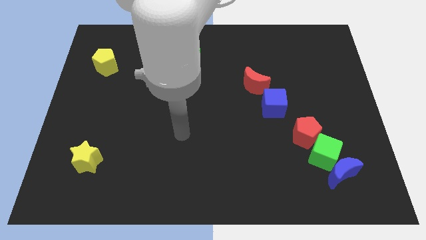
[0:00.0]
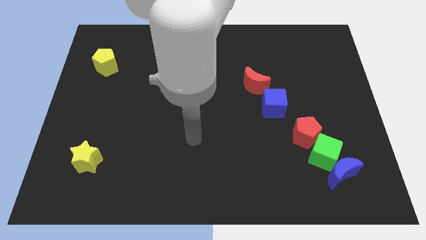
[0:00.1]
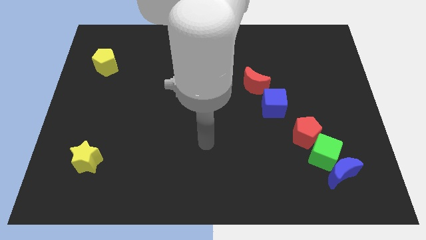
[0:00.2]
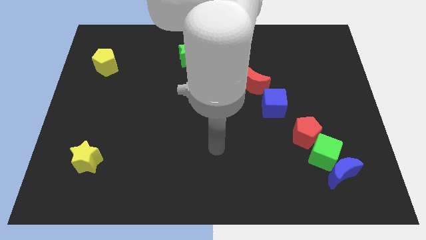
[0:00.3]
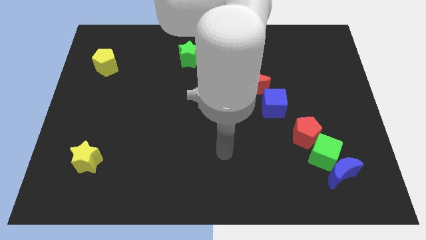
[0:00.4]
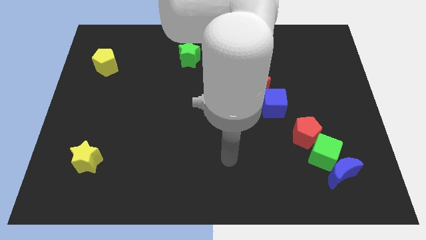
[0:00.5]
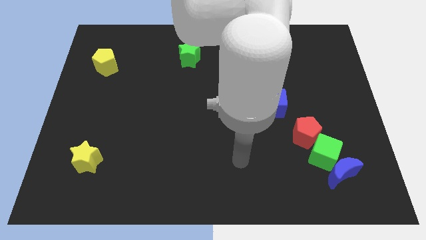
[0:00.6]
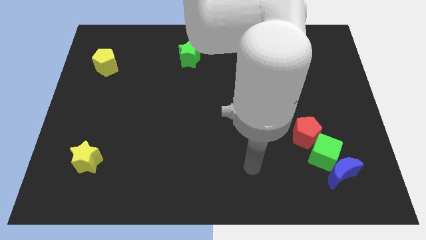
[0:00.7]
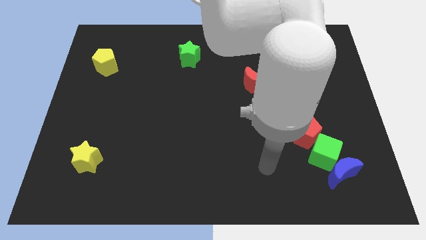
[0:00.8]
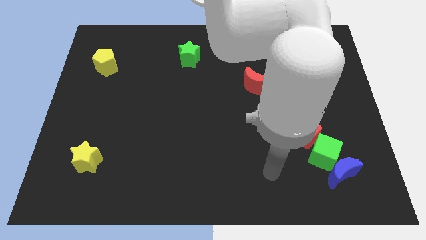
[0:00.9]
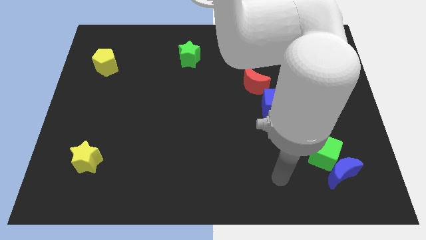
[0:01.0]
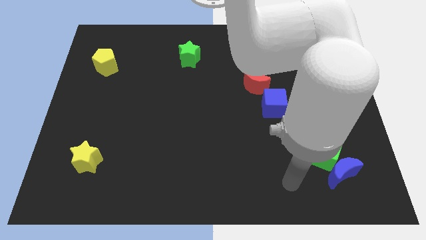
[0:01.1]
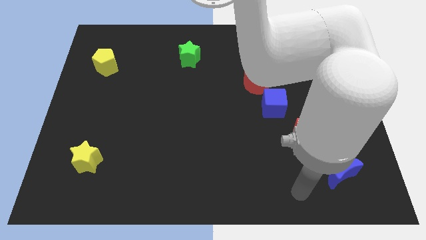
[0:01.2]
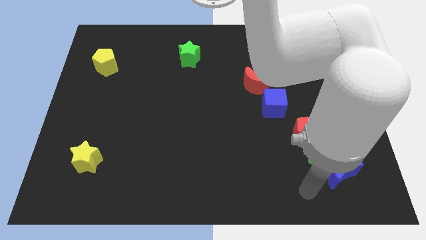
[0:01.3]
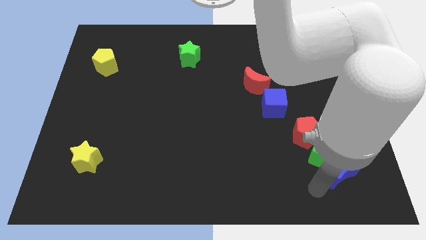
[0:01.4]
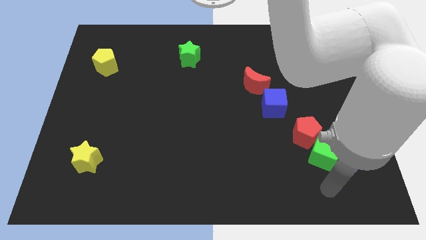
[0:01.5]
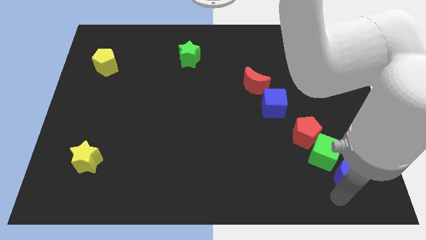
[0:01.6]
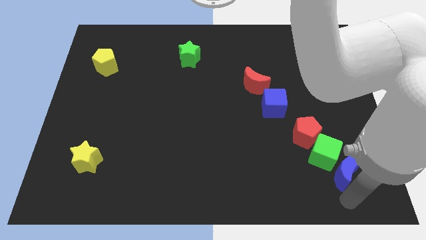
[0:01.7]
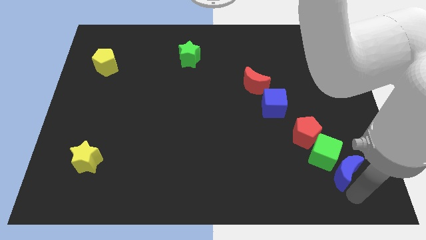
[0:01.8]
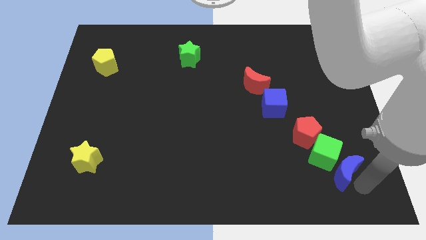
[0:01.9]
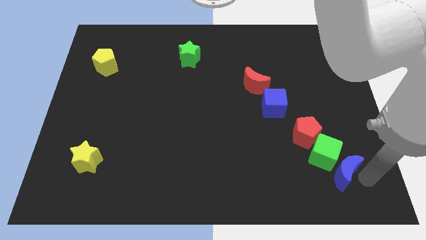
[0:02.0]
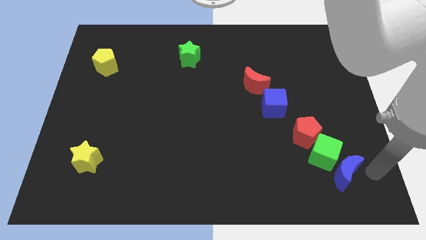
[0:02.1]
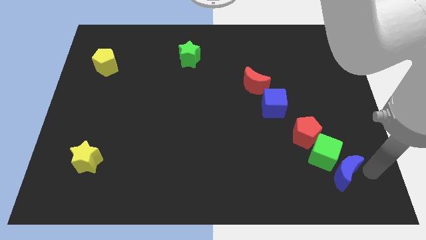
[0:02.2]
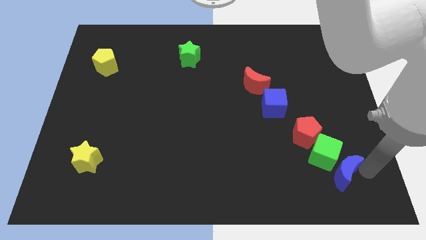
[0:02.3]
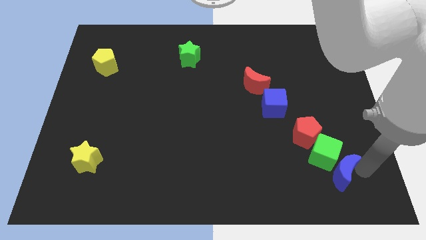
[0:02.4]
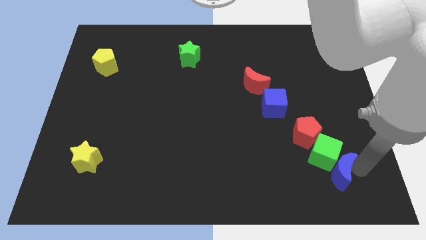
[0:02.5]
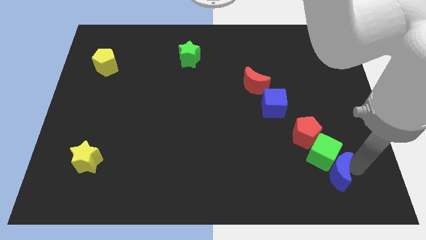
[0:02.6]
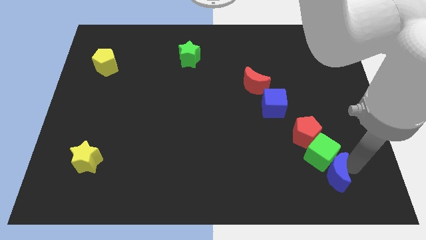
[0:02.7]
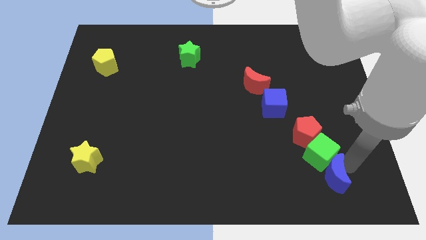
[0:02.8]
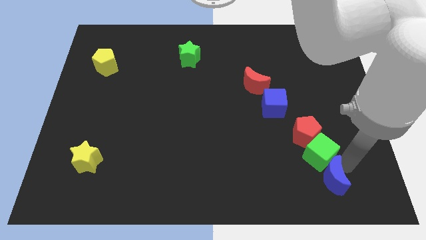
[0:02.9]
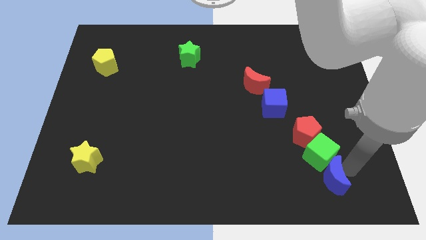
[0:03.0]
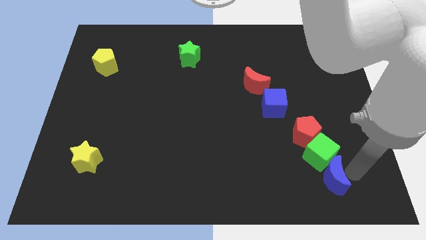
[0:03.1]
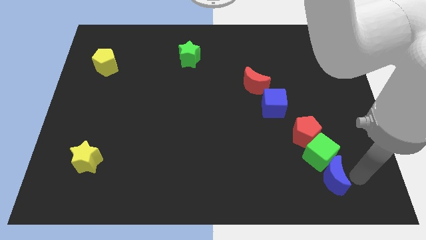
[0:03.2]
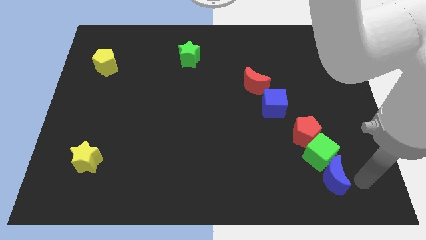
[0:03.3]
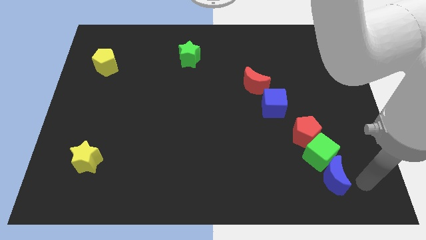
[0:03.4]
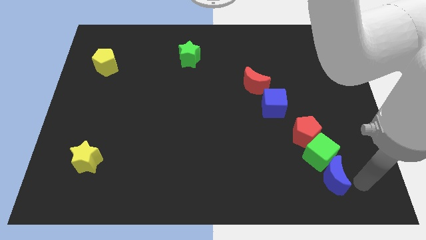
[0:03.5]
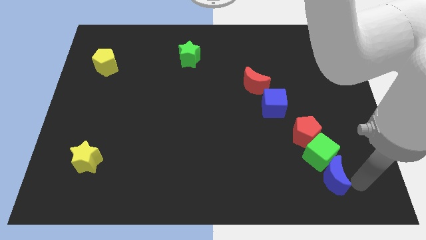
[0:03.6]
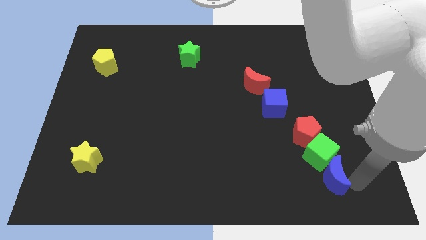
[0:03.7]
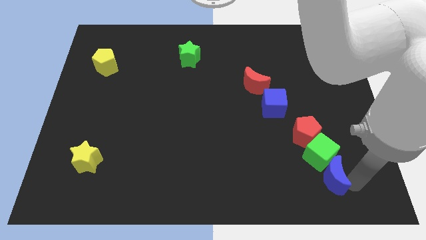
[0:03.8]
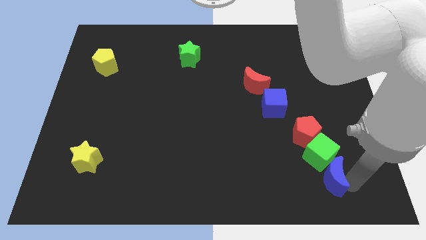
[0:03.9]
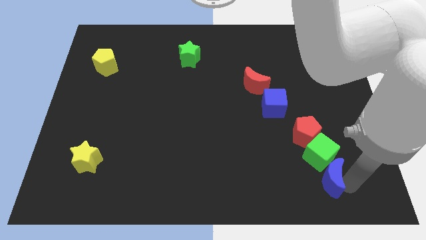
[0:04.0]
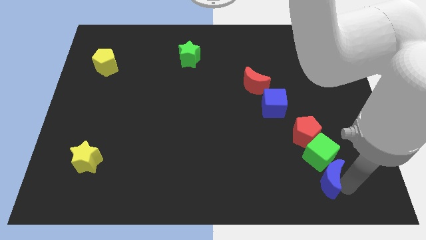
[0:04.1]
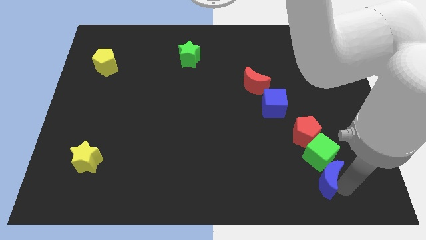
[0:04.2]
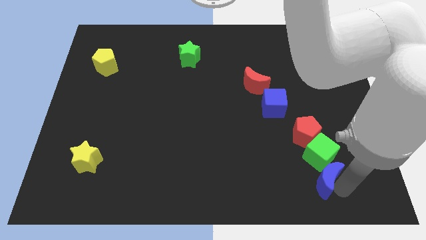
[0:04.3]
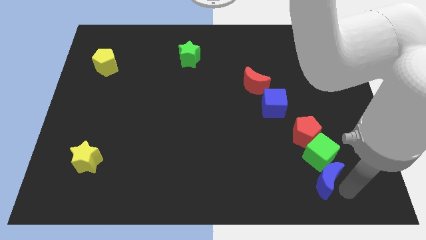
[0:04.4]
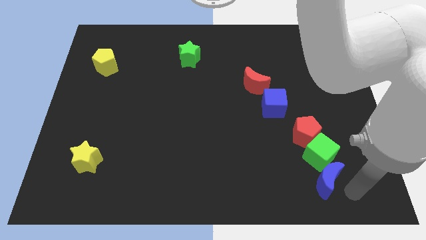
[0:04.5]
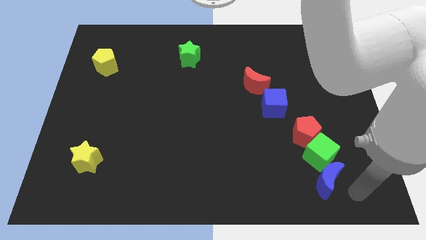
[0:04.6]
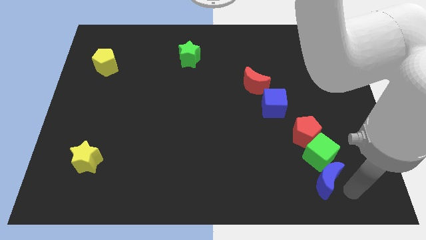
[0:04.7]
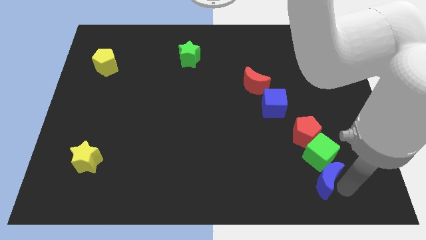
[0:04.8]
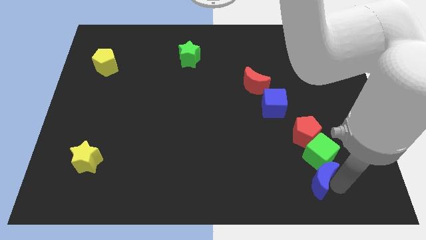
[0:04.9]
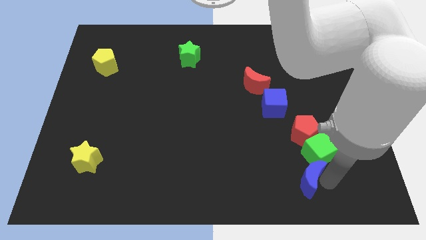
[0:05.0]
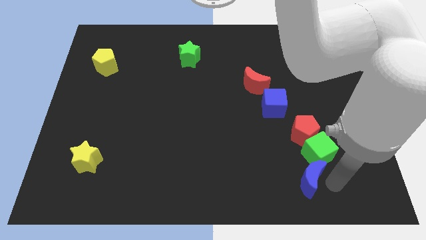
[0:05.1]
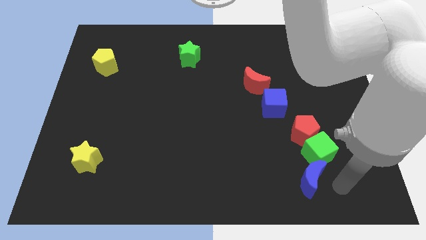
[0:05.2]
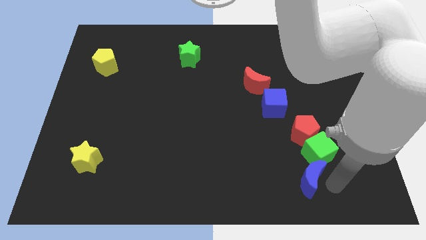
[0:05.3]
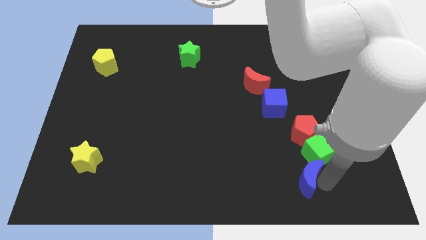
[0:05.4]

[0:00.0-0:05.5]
move the blue moon slightly to the left

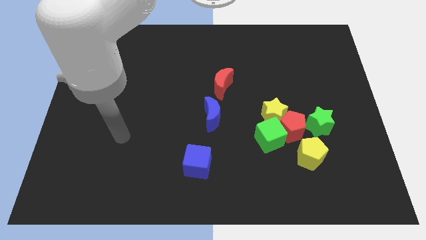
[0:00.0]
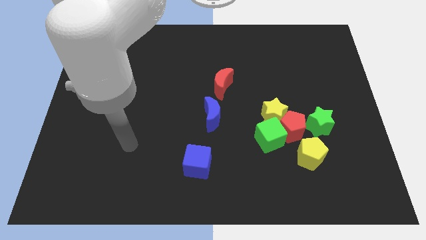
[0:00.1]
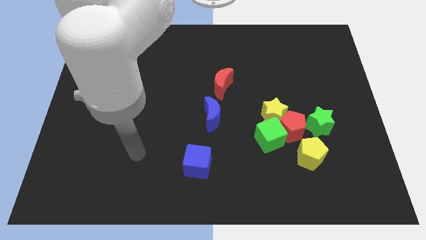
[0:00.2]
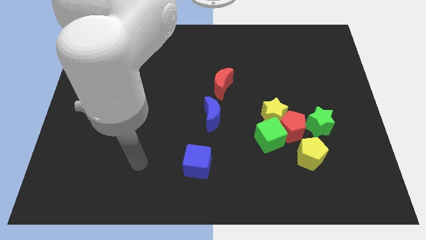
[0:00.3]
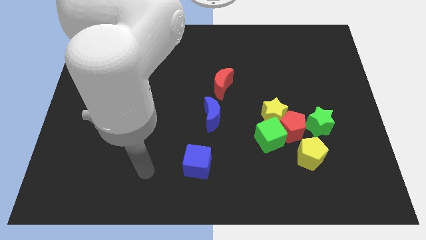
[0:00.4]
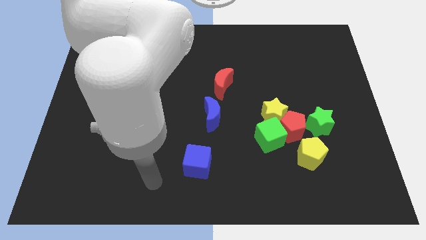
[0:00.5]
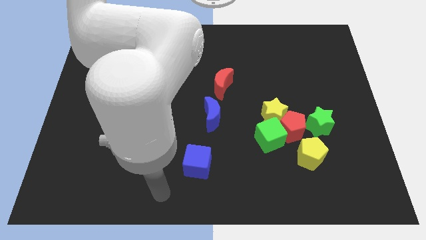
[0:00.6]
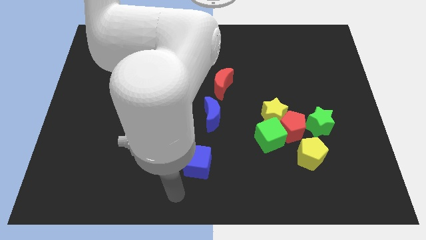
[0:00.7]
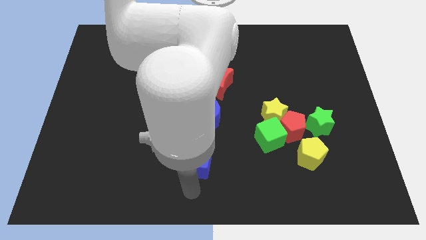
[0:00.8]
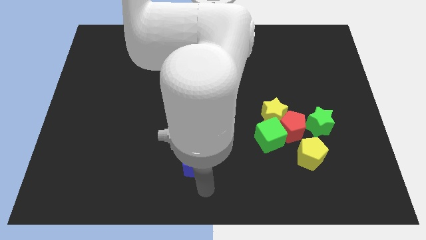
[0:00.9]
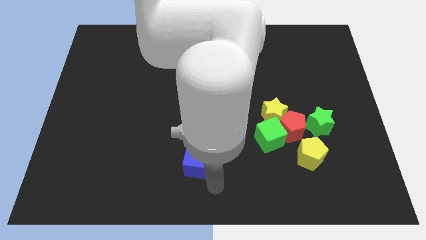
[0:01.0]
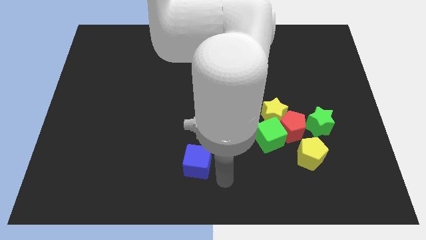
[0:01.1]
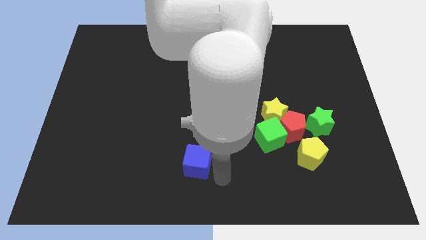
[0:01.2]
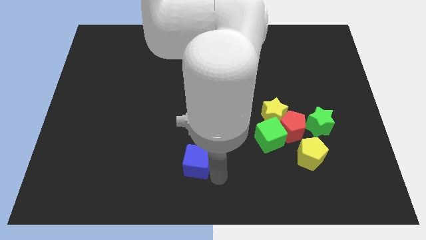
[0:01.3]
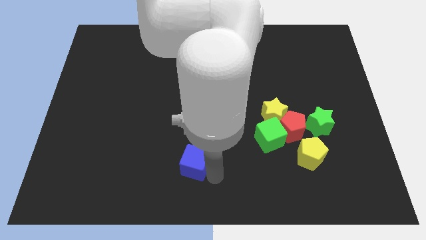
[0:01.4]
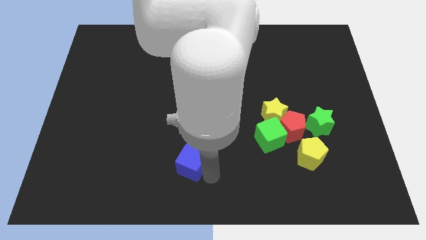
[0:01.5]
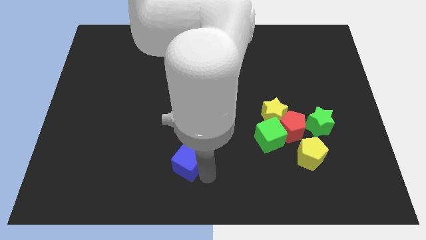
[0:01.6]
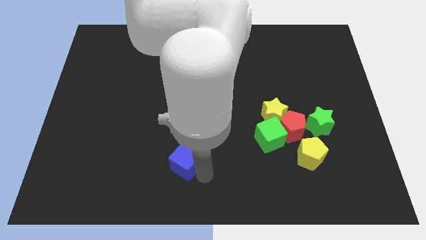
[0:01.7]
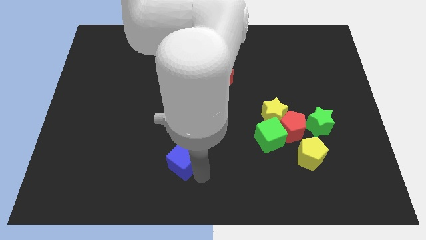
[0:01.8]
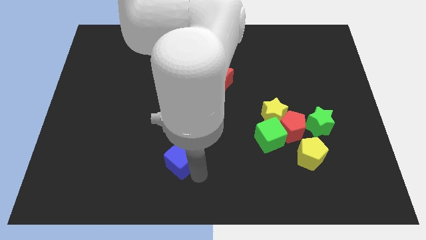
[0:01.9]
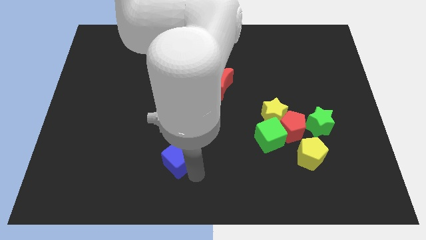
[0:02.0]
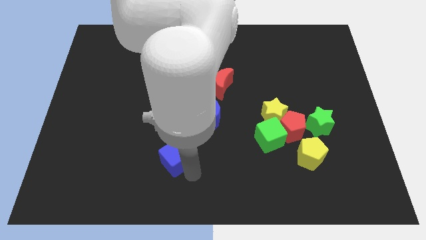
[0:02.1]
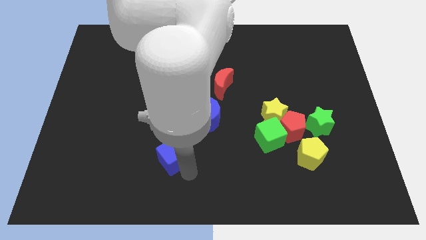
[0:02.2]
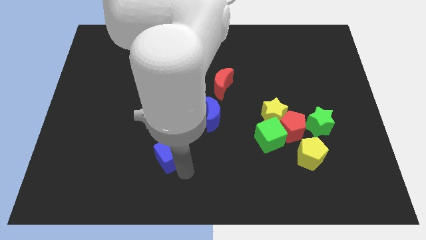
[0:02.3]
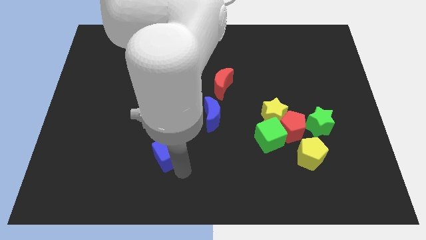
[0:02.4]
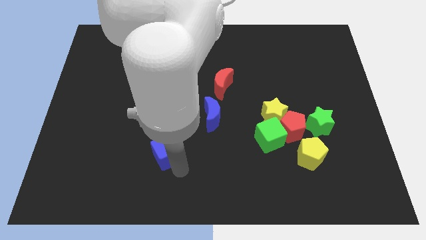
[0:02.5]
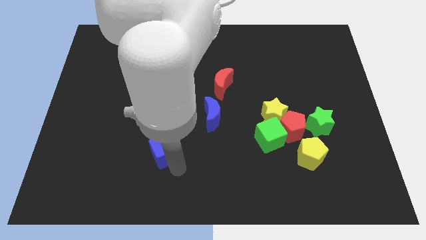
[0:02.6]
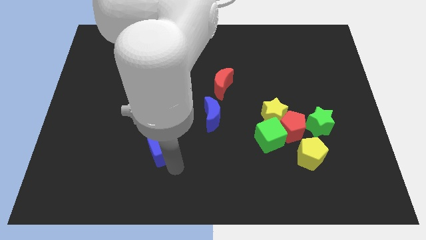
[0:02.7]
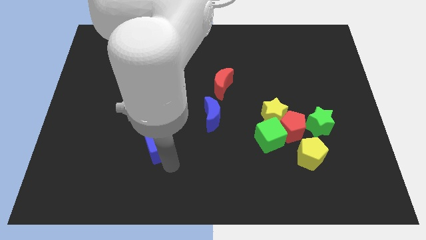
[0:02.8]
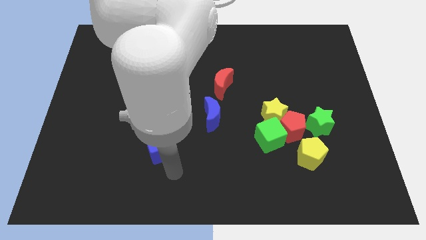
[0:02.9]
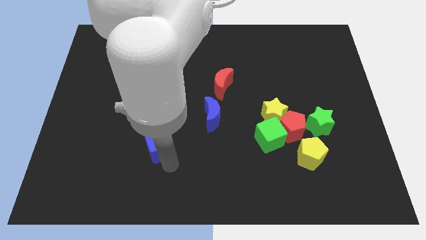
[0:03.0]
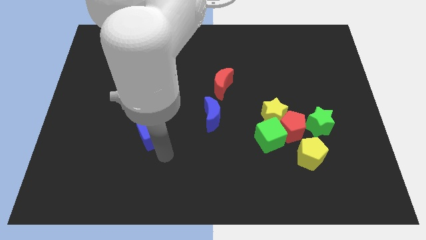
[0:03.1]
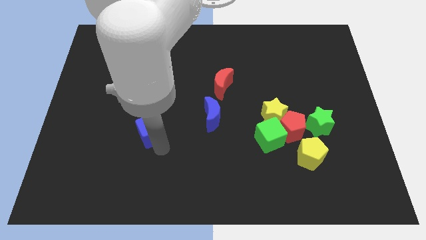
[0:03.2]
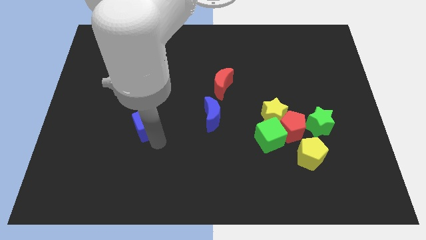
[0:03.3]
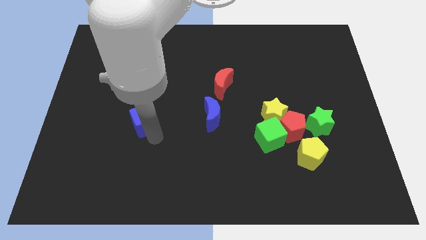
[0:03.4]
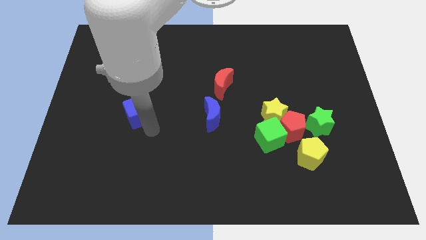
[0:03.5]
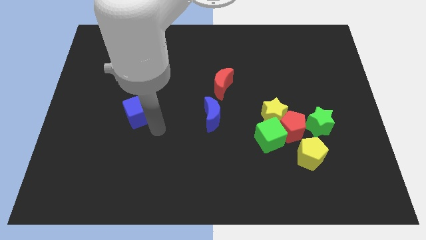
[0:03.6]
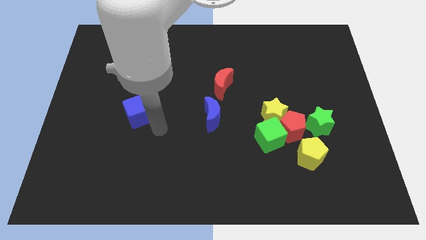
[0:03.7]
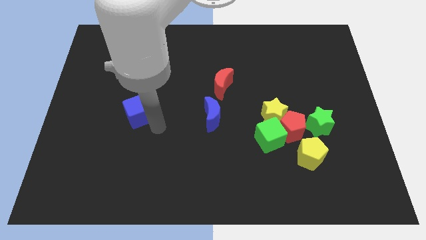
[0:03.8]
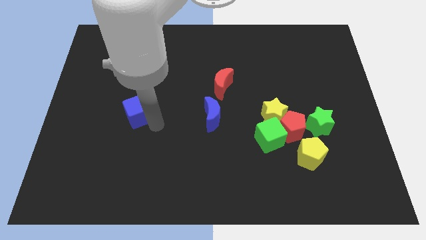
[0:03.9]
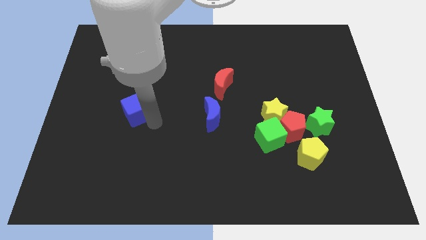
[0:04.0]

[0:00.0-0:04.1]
slide the blue cube diagonally up and left
